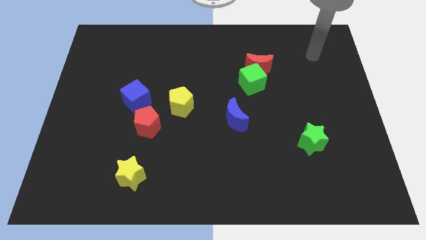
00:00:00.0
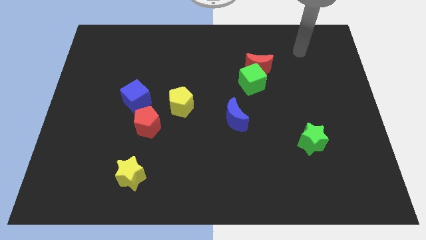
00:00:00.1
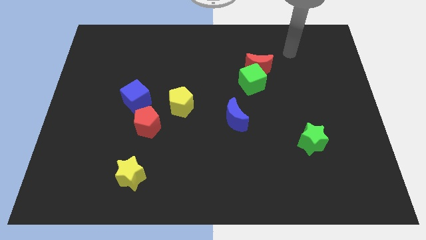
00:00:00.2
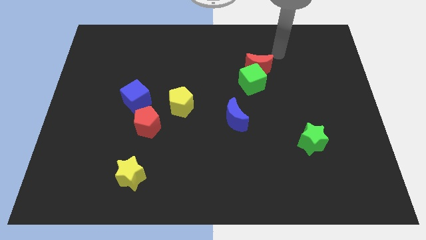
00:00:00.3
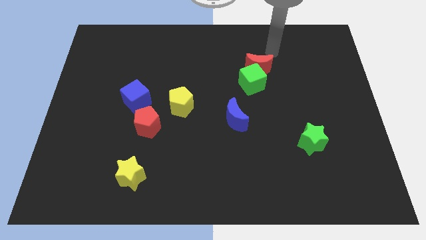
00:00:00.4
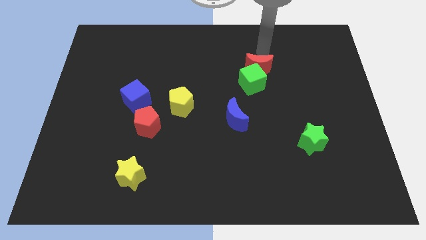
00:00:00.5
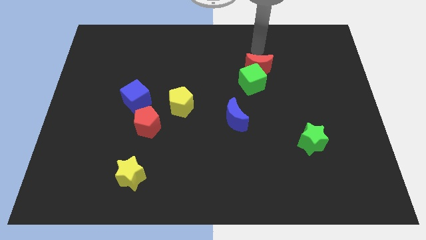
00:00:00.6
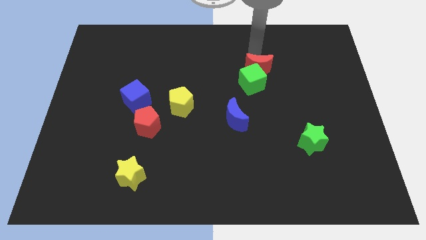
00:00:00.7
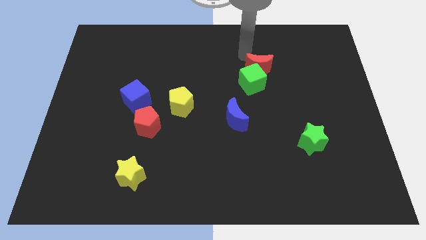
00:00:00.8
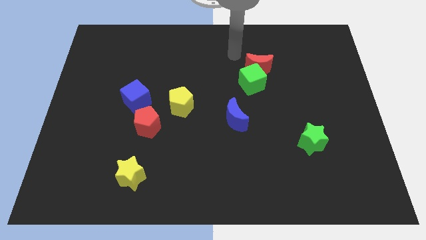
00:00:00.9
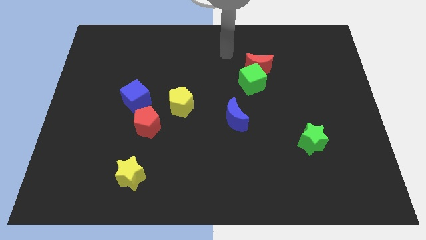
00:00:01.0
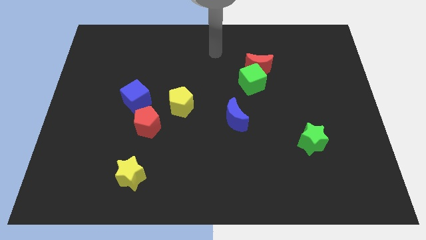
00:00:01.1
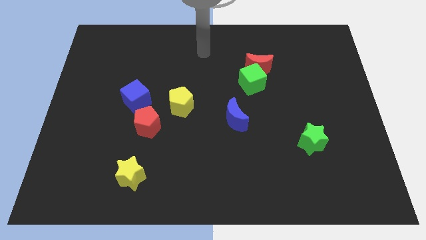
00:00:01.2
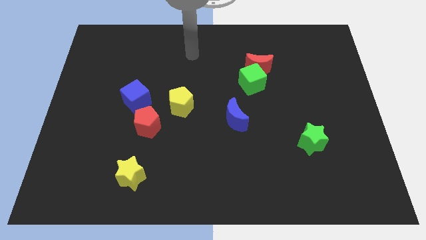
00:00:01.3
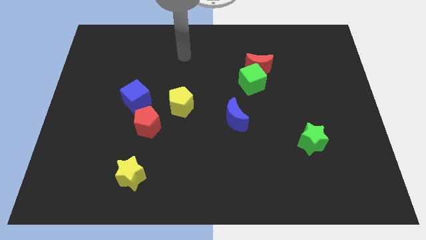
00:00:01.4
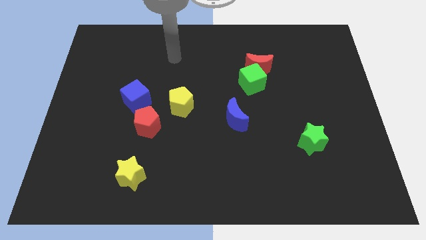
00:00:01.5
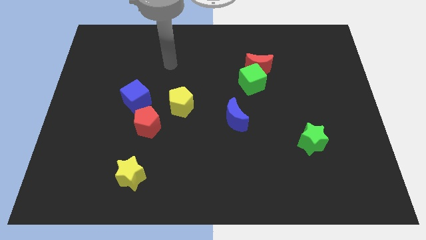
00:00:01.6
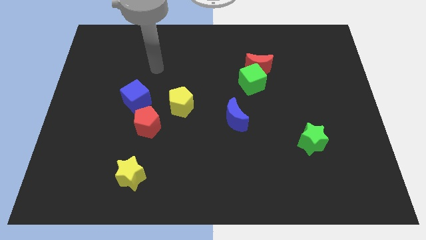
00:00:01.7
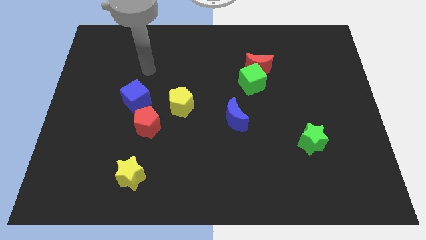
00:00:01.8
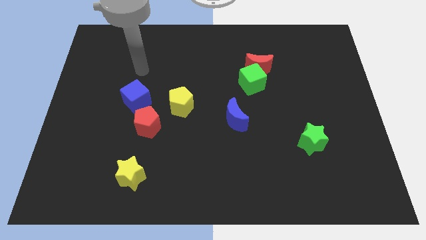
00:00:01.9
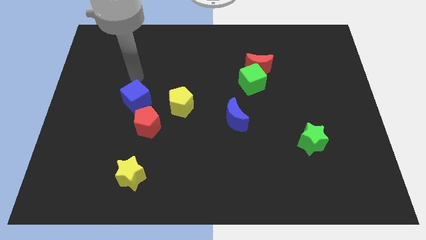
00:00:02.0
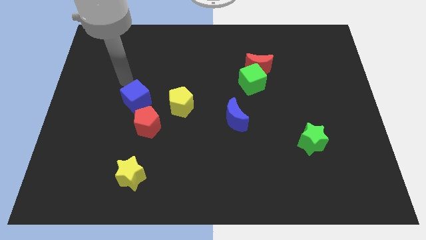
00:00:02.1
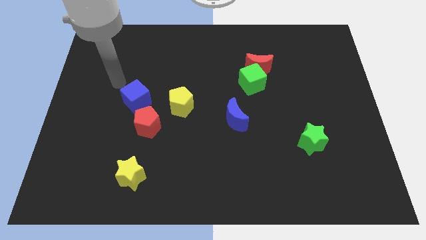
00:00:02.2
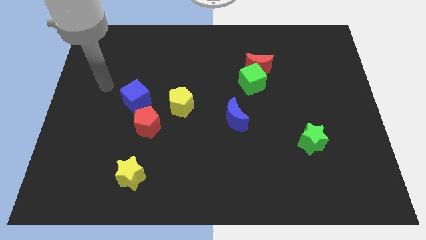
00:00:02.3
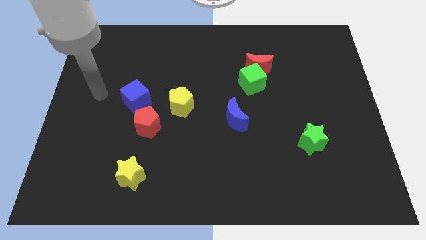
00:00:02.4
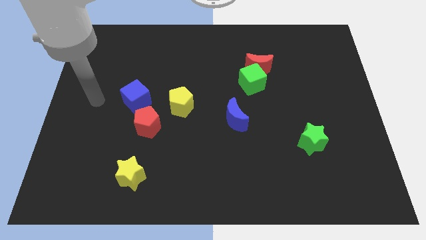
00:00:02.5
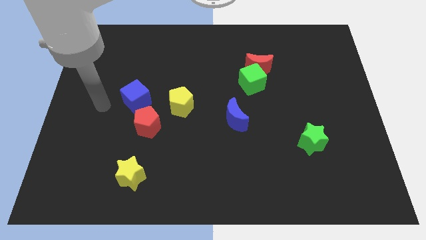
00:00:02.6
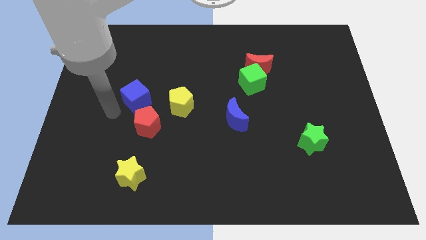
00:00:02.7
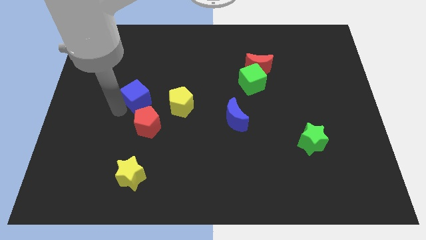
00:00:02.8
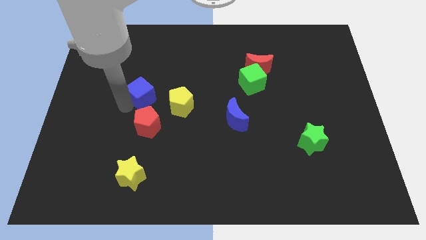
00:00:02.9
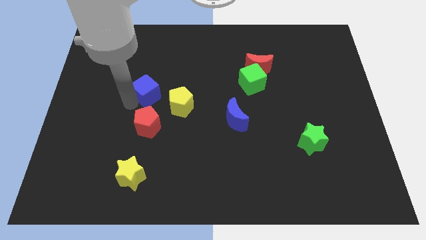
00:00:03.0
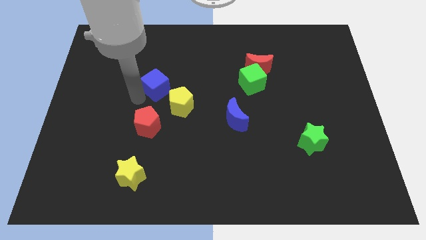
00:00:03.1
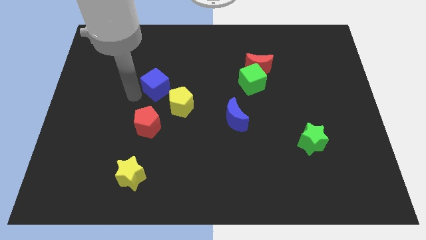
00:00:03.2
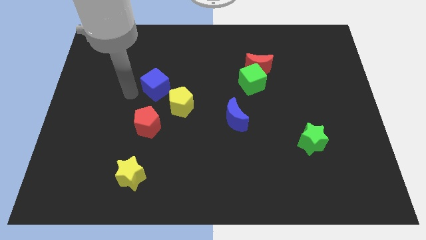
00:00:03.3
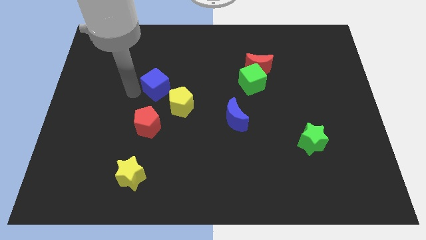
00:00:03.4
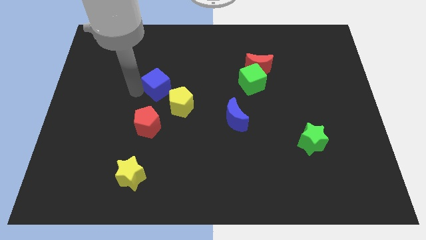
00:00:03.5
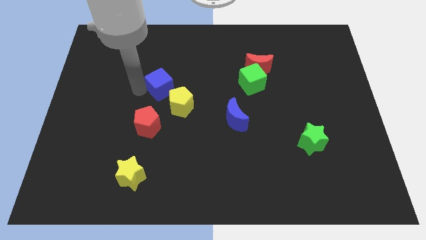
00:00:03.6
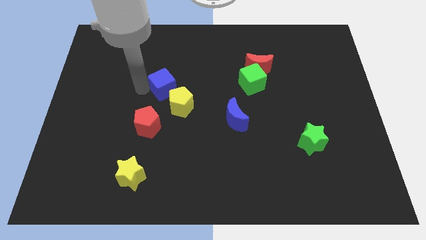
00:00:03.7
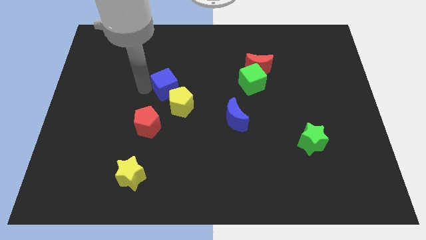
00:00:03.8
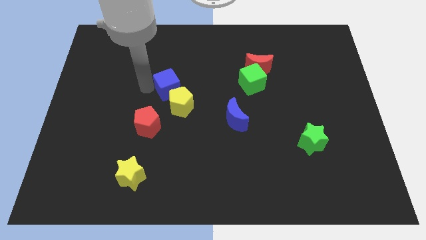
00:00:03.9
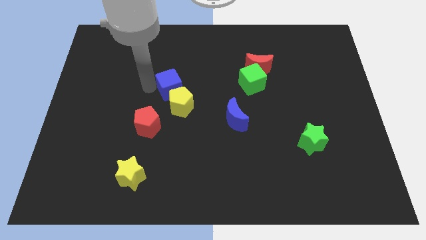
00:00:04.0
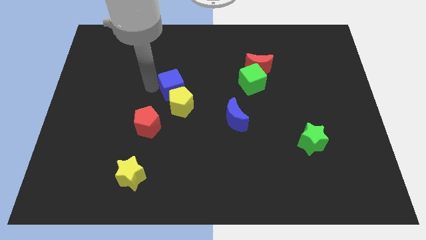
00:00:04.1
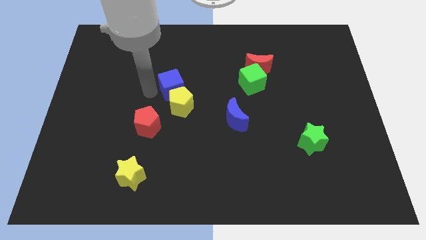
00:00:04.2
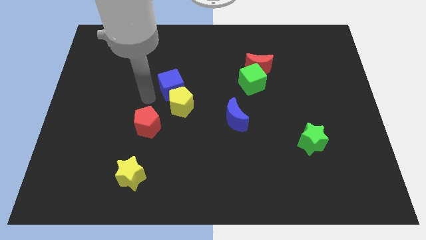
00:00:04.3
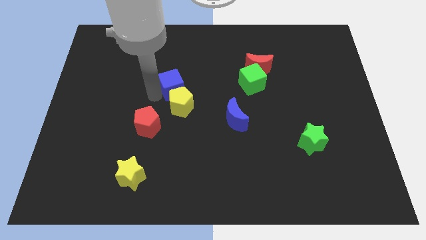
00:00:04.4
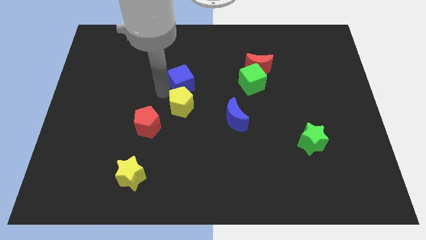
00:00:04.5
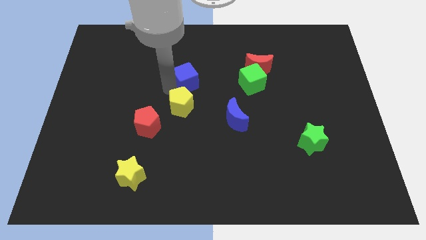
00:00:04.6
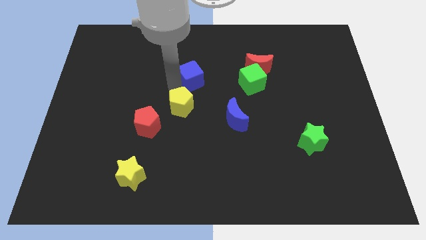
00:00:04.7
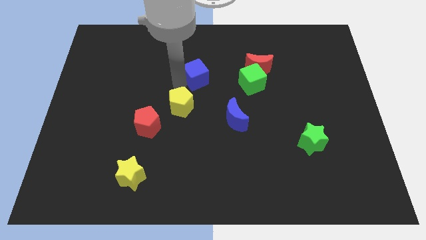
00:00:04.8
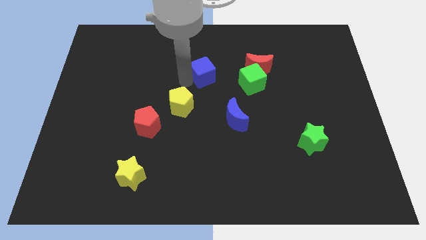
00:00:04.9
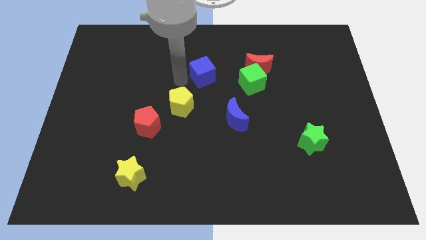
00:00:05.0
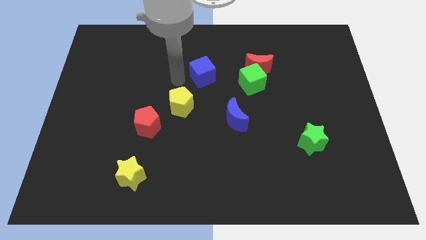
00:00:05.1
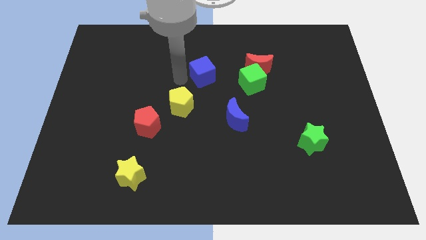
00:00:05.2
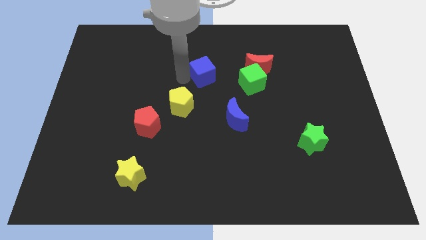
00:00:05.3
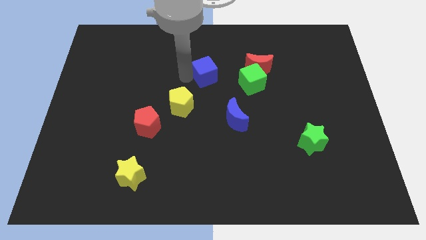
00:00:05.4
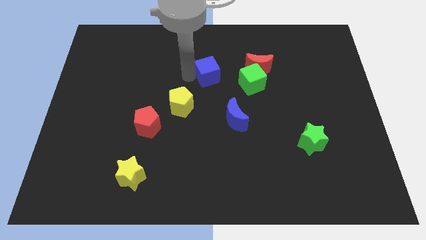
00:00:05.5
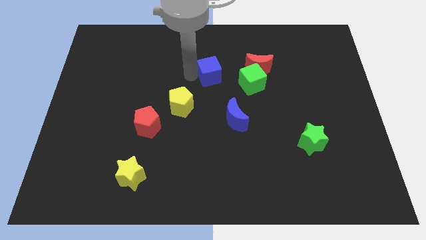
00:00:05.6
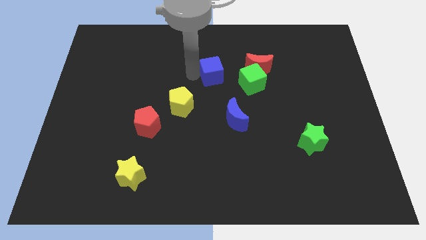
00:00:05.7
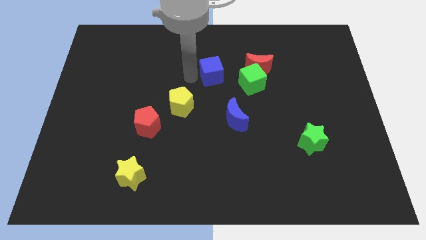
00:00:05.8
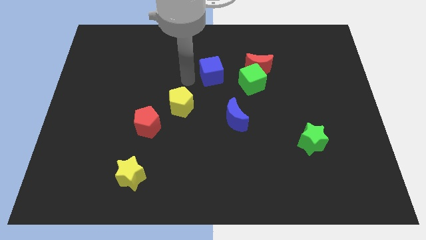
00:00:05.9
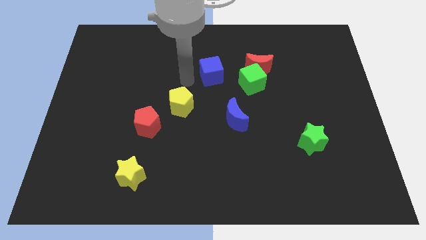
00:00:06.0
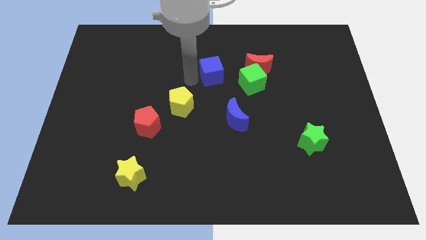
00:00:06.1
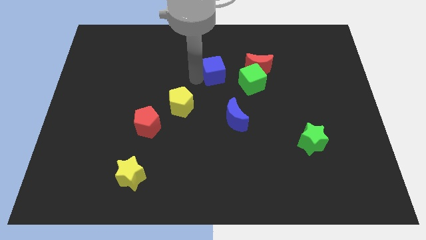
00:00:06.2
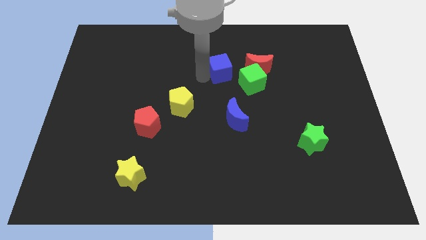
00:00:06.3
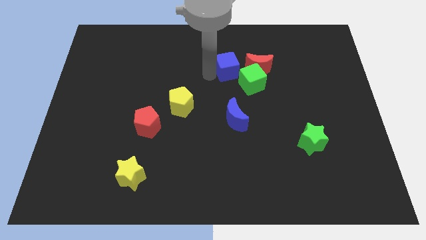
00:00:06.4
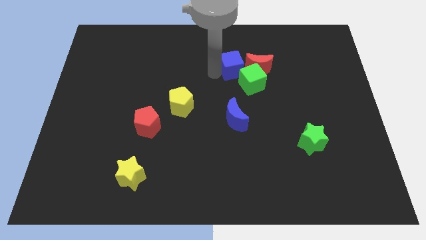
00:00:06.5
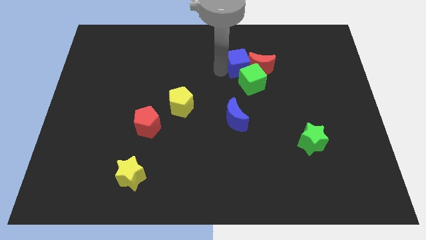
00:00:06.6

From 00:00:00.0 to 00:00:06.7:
move the blue cube next to the red moon

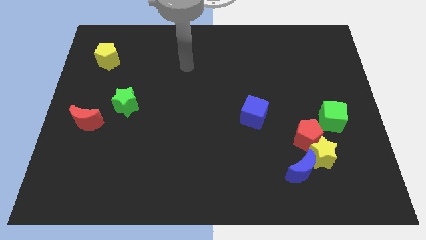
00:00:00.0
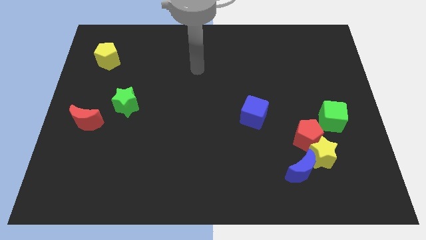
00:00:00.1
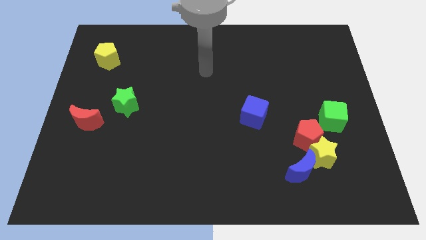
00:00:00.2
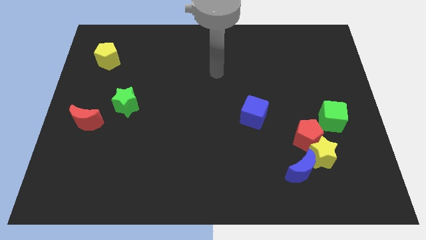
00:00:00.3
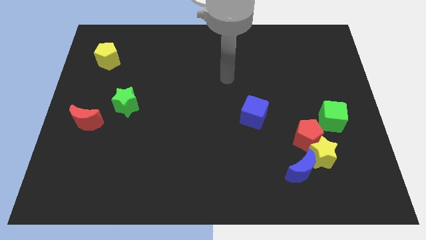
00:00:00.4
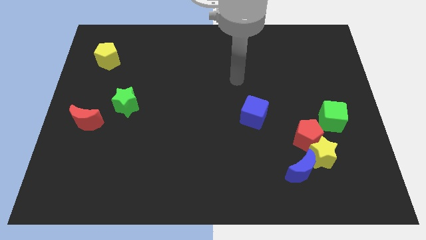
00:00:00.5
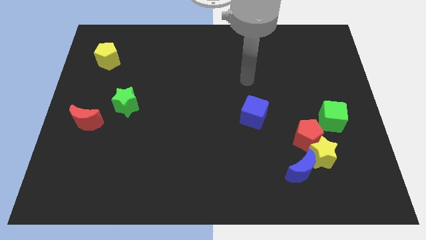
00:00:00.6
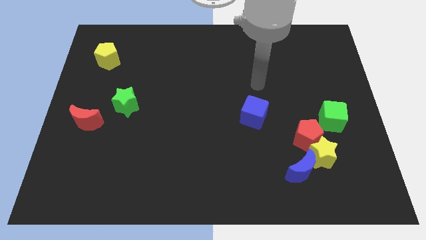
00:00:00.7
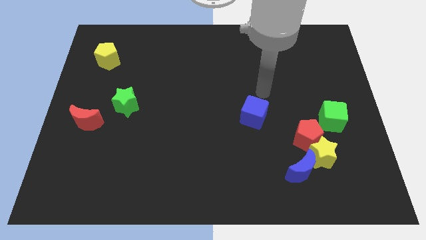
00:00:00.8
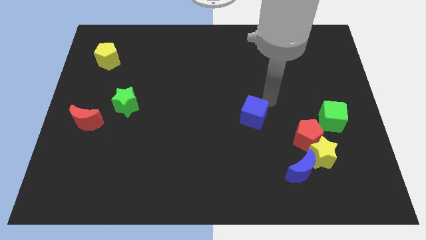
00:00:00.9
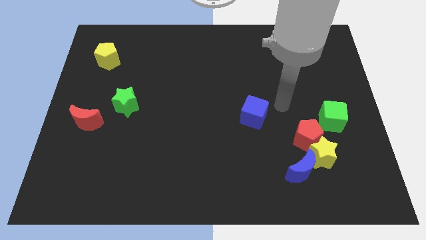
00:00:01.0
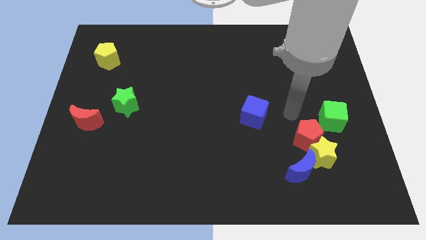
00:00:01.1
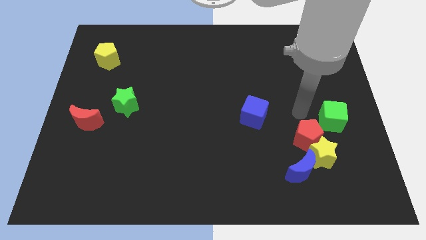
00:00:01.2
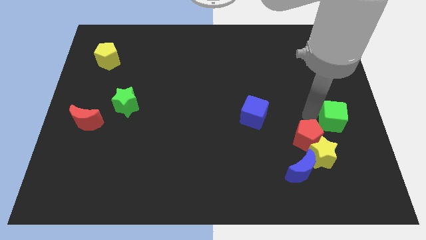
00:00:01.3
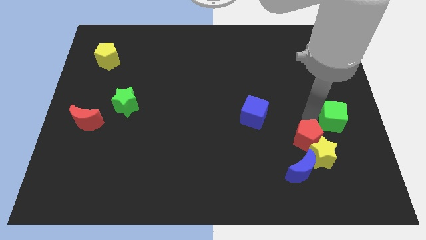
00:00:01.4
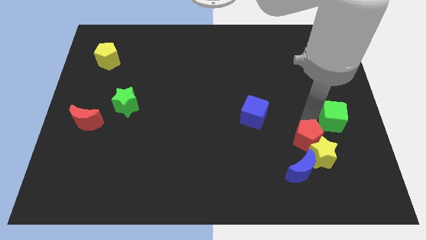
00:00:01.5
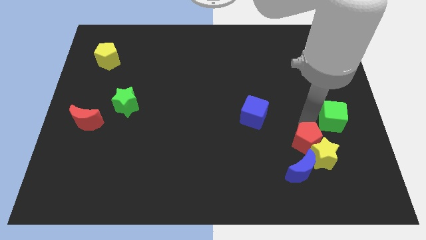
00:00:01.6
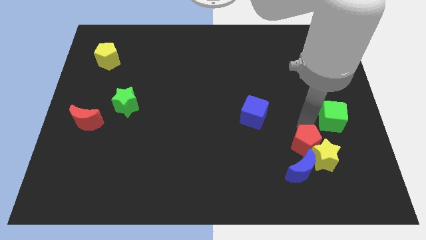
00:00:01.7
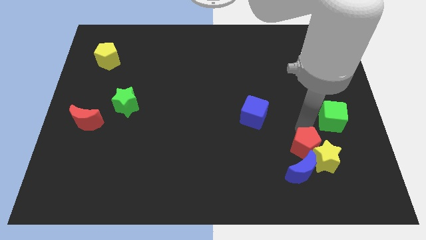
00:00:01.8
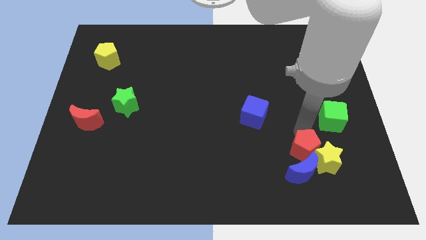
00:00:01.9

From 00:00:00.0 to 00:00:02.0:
slide the red pentagon close to the blue moon
